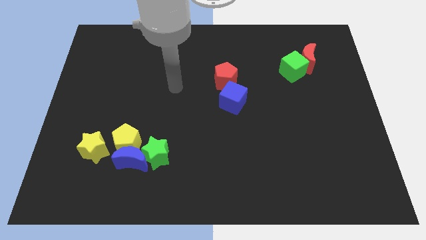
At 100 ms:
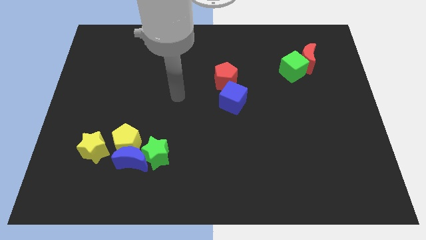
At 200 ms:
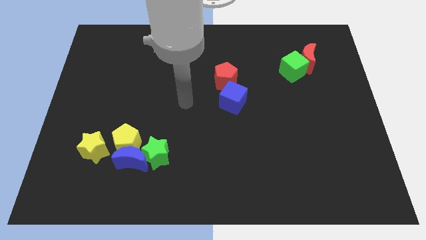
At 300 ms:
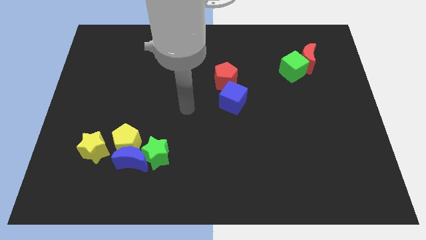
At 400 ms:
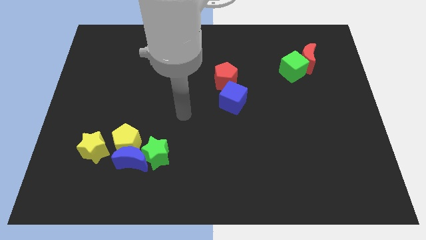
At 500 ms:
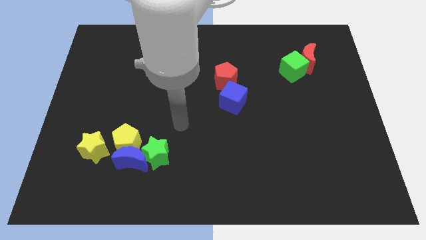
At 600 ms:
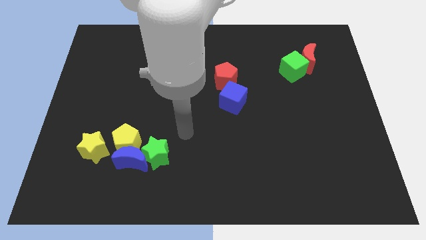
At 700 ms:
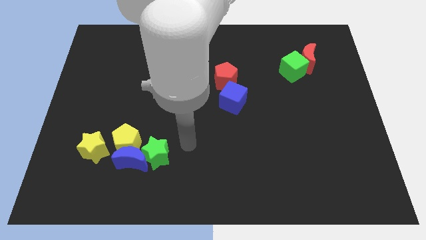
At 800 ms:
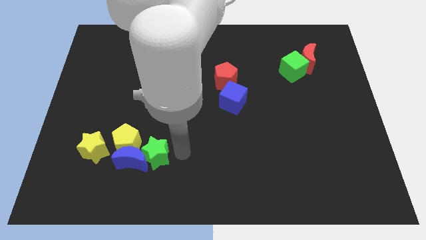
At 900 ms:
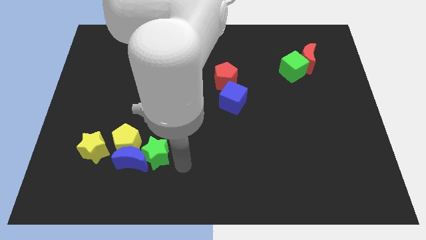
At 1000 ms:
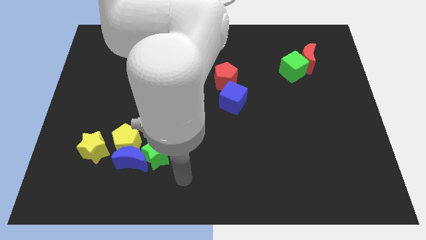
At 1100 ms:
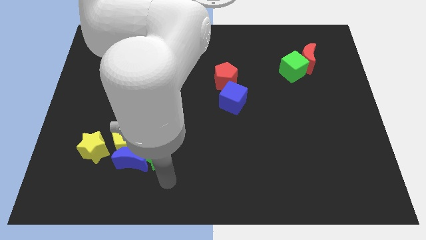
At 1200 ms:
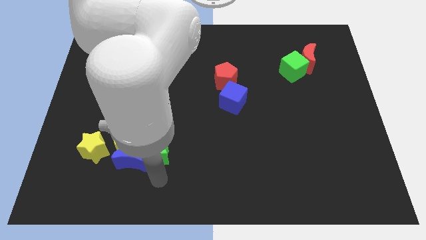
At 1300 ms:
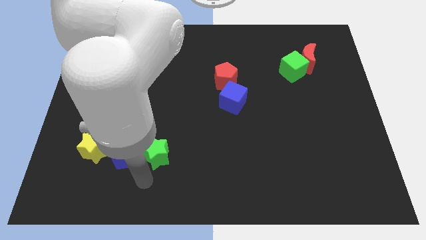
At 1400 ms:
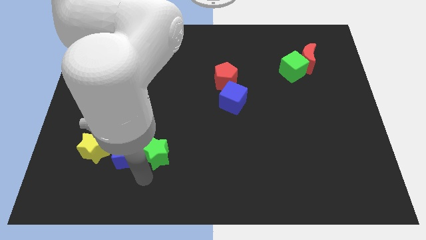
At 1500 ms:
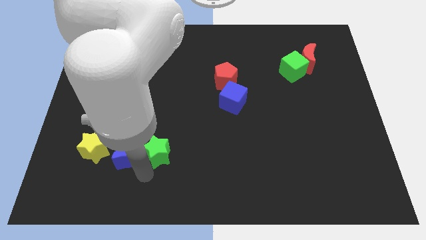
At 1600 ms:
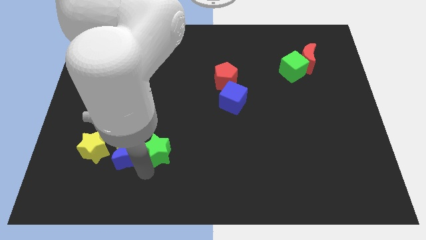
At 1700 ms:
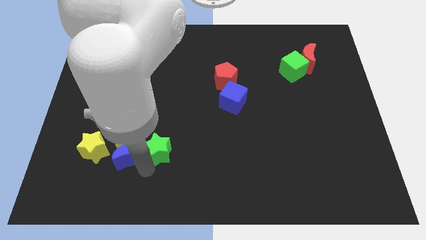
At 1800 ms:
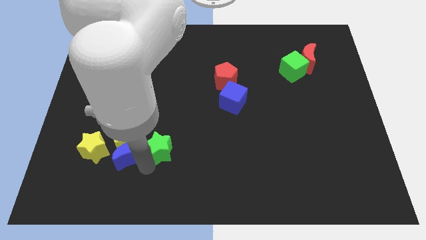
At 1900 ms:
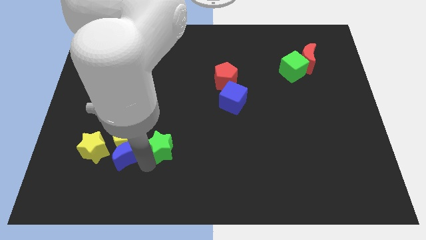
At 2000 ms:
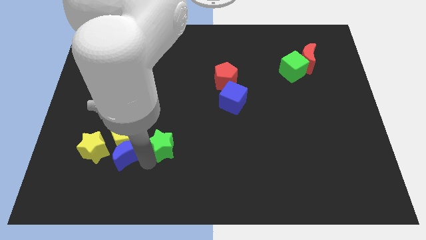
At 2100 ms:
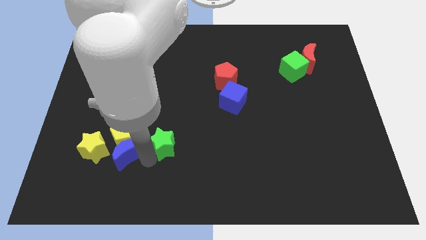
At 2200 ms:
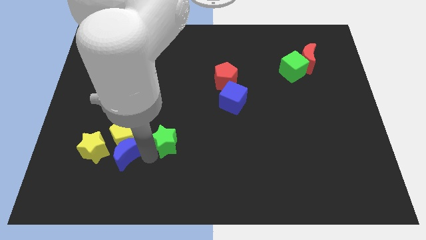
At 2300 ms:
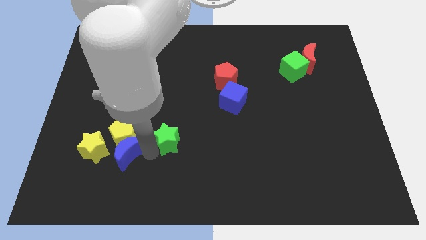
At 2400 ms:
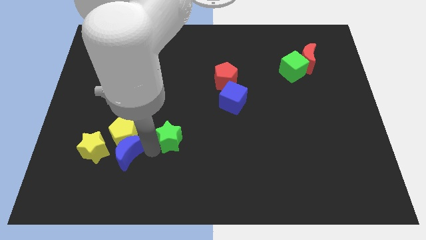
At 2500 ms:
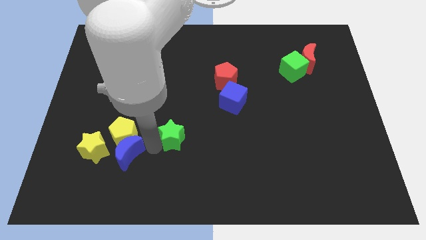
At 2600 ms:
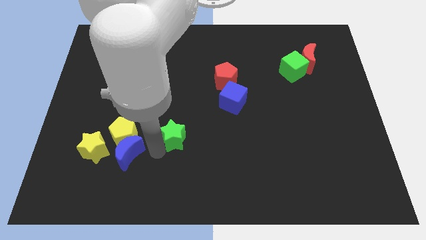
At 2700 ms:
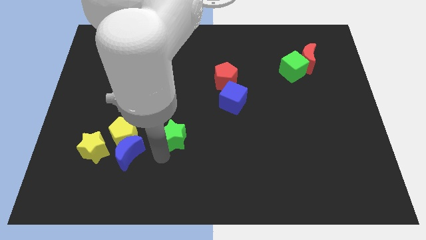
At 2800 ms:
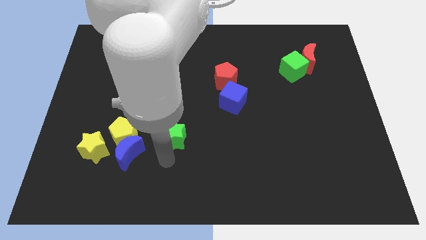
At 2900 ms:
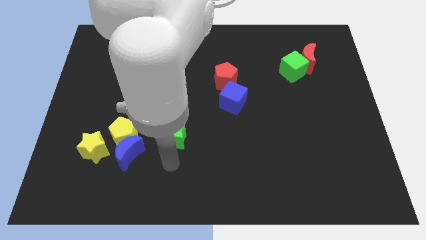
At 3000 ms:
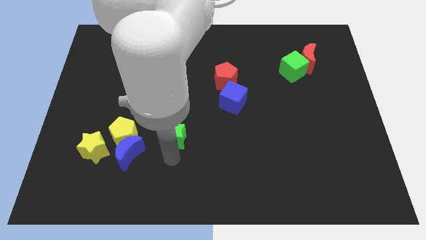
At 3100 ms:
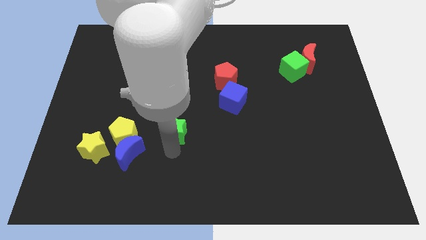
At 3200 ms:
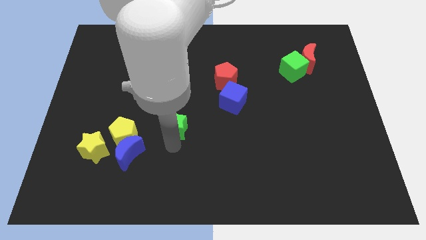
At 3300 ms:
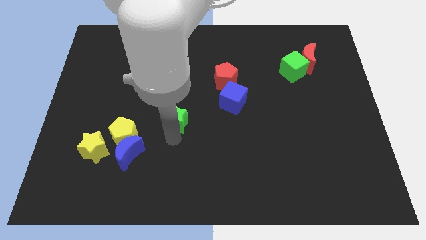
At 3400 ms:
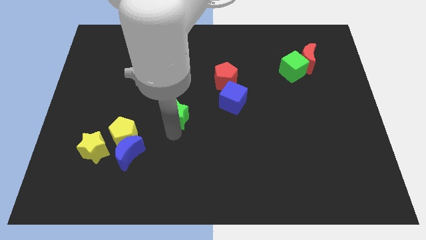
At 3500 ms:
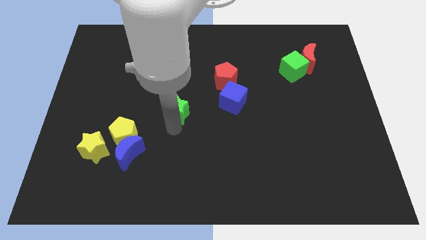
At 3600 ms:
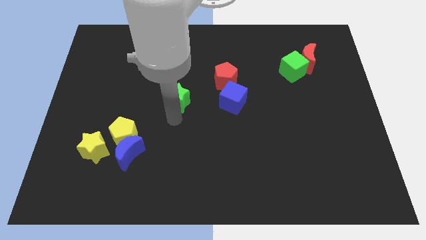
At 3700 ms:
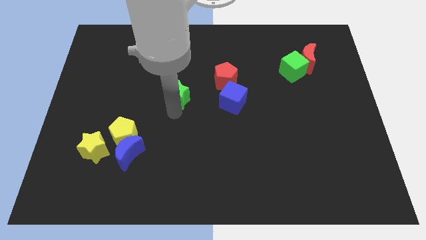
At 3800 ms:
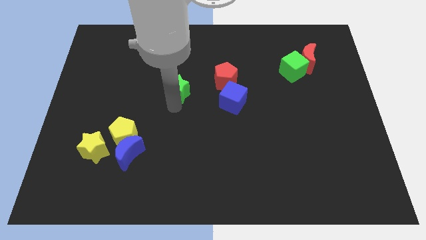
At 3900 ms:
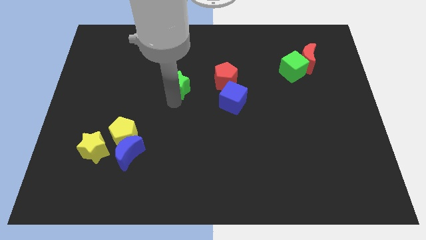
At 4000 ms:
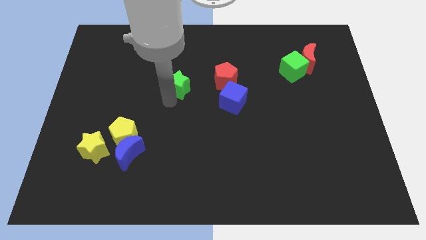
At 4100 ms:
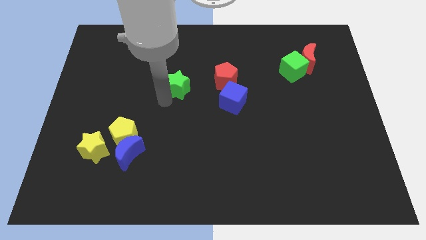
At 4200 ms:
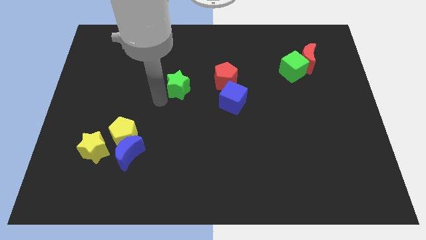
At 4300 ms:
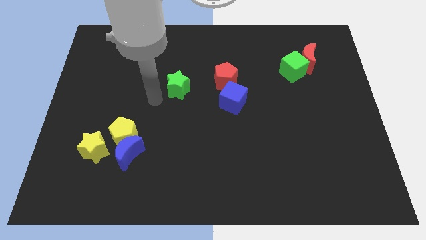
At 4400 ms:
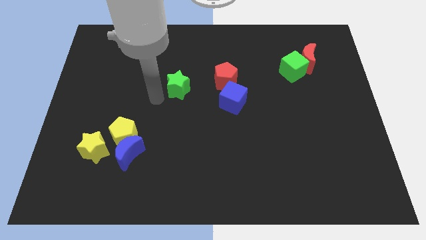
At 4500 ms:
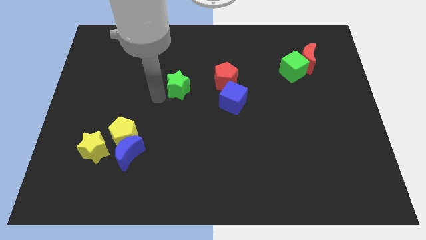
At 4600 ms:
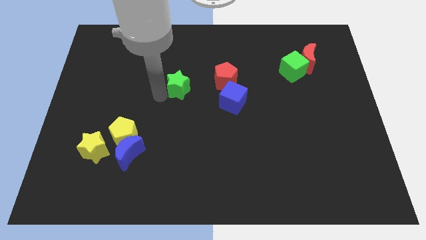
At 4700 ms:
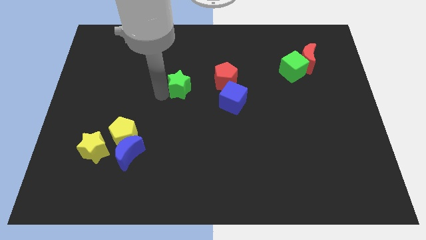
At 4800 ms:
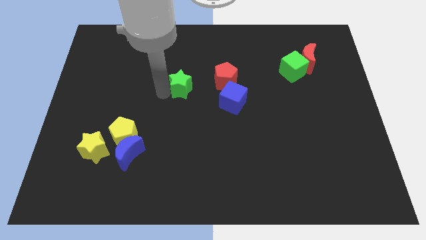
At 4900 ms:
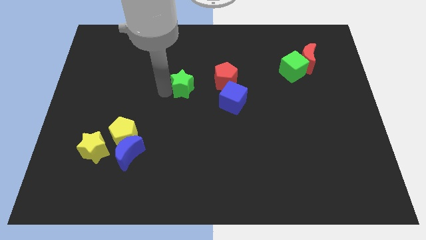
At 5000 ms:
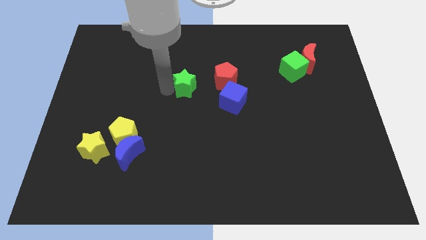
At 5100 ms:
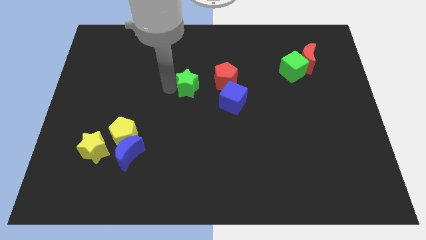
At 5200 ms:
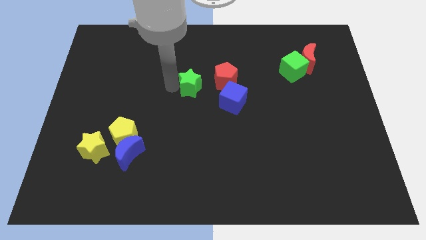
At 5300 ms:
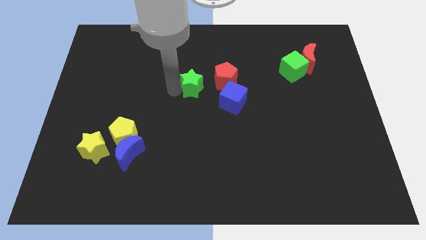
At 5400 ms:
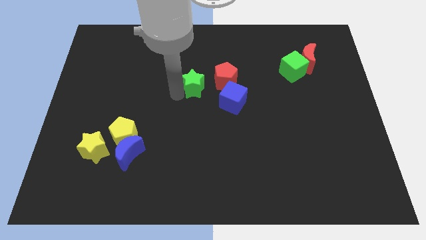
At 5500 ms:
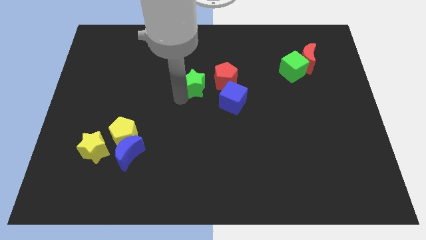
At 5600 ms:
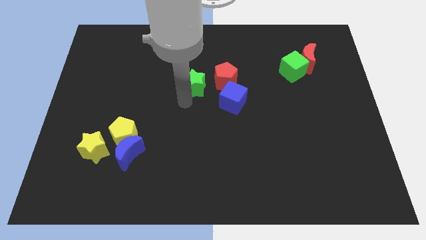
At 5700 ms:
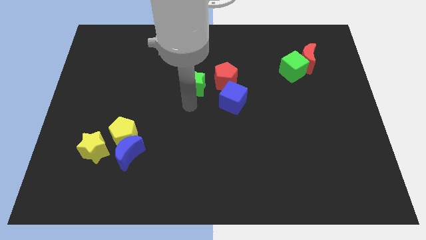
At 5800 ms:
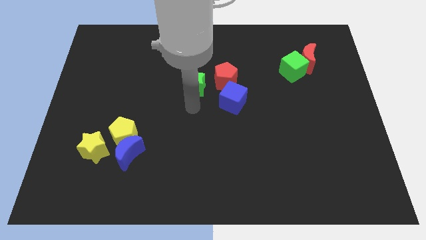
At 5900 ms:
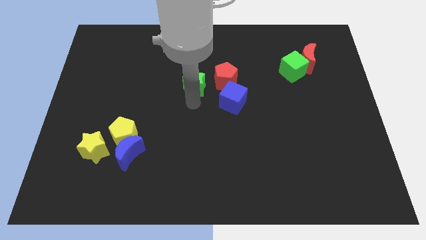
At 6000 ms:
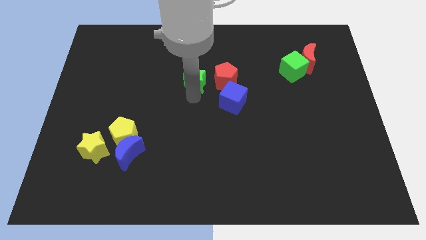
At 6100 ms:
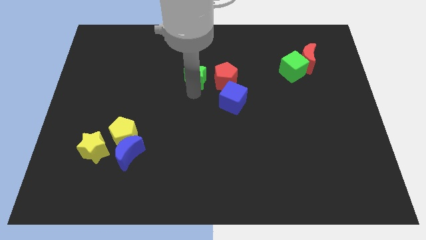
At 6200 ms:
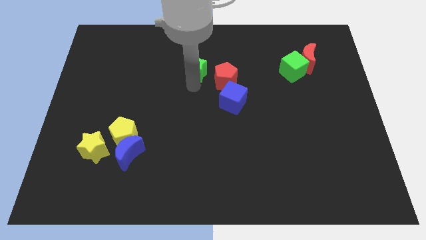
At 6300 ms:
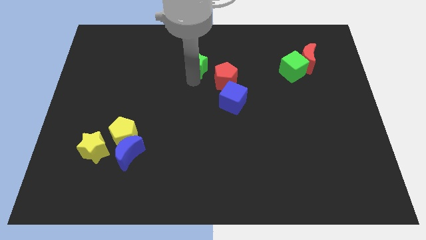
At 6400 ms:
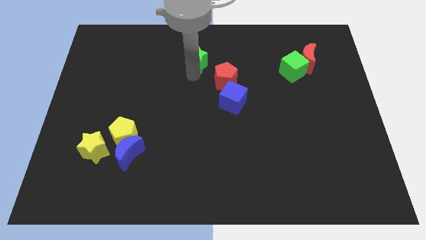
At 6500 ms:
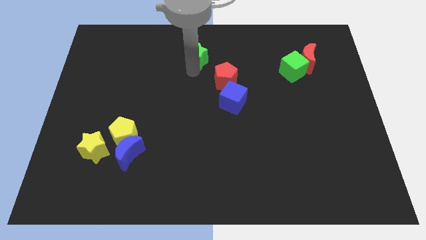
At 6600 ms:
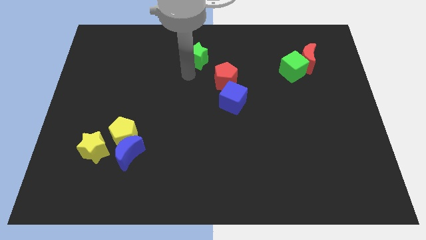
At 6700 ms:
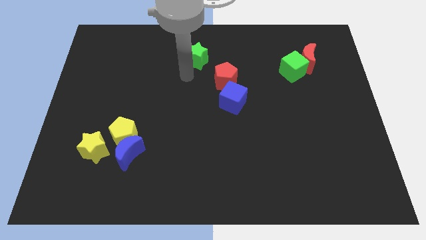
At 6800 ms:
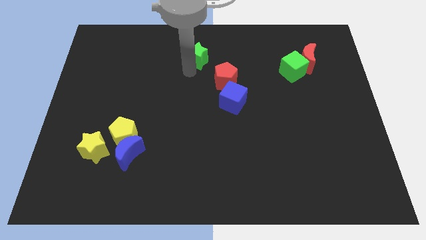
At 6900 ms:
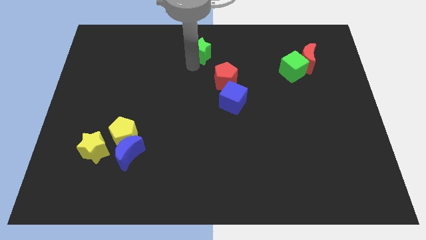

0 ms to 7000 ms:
push the green star to the top

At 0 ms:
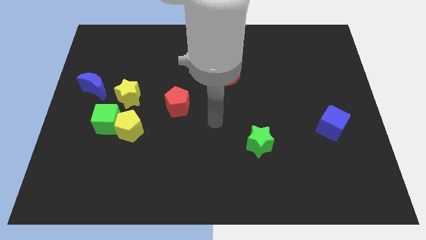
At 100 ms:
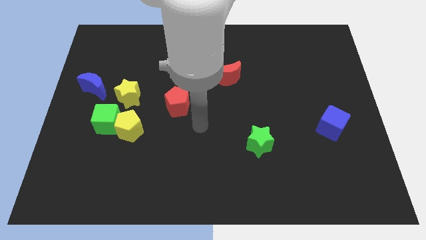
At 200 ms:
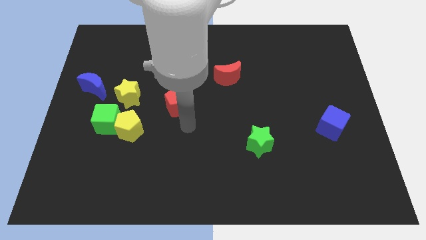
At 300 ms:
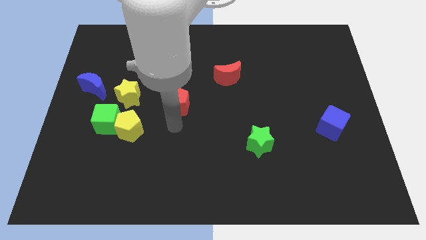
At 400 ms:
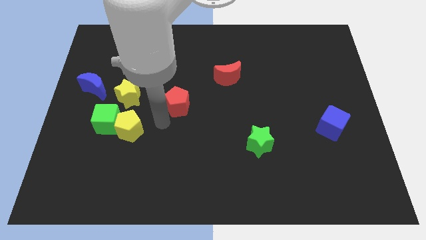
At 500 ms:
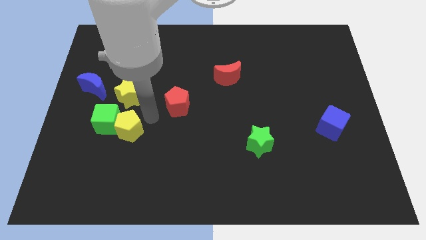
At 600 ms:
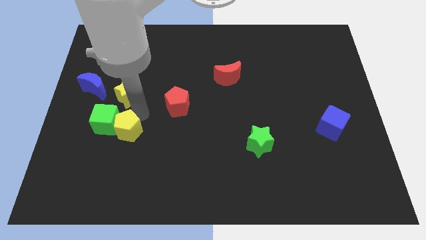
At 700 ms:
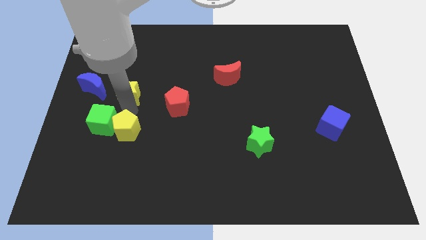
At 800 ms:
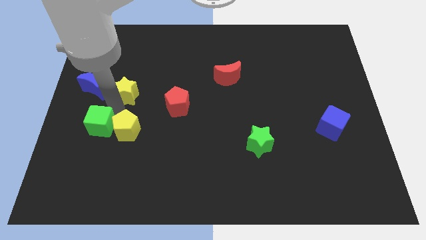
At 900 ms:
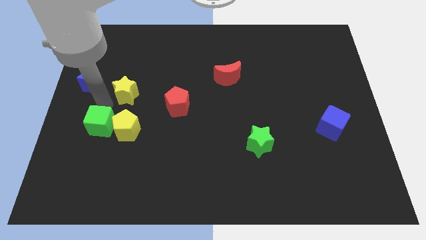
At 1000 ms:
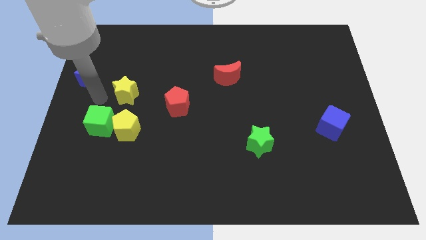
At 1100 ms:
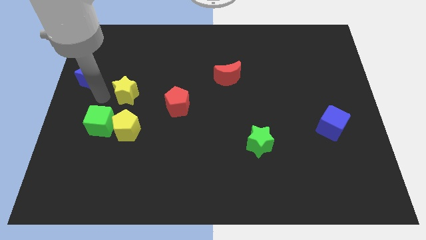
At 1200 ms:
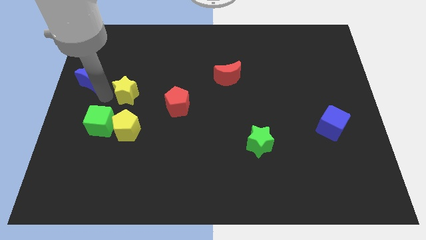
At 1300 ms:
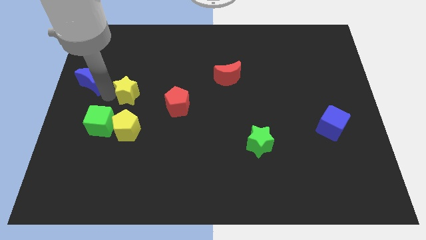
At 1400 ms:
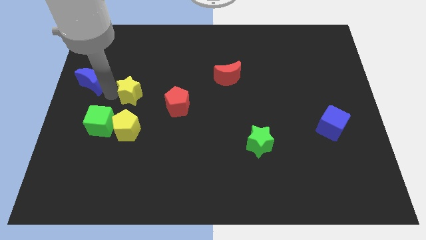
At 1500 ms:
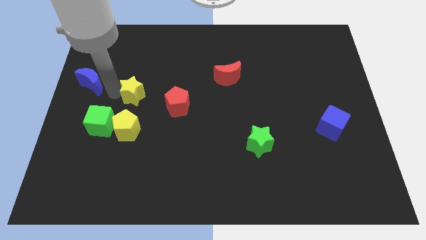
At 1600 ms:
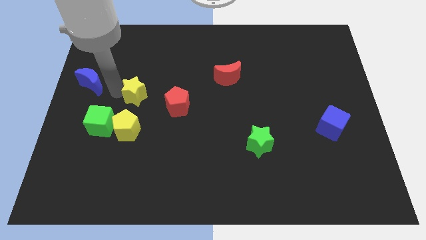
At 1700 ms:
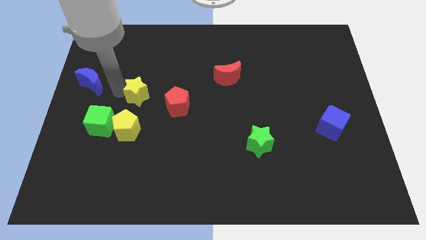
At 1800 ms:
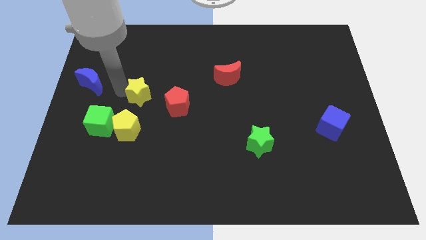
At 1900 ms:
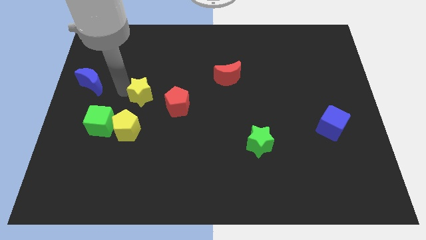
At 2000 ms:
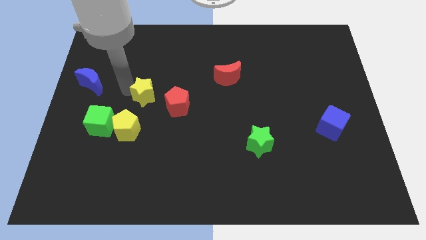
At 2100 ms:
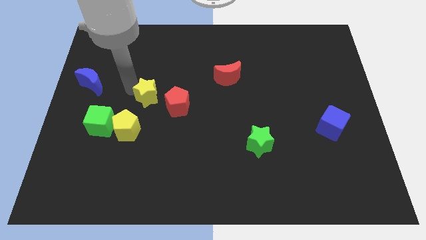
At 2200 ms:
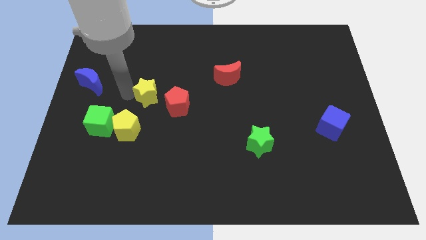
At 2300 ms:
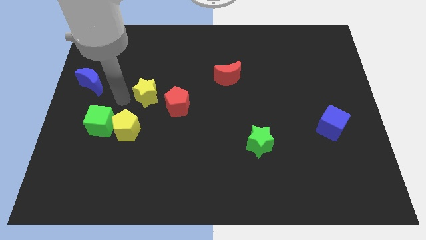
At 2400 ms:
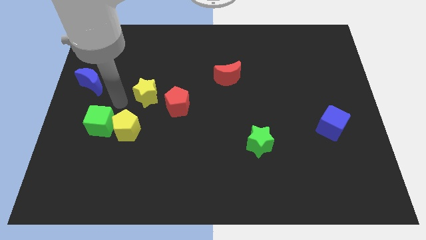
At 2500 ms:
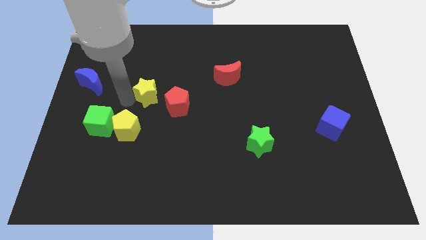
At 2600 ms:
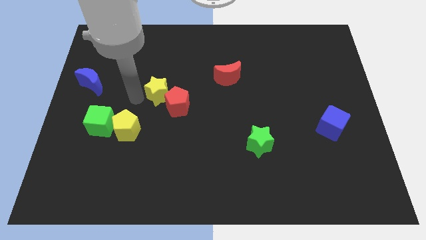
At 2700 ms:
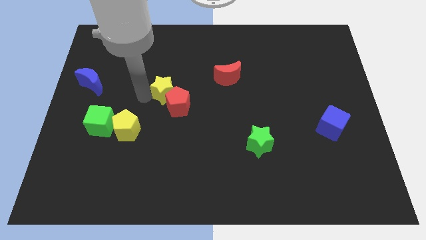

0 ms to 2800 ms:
move the yellow star to the center of the board
